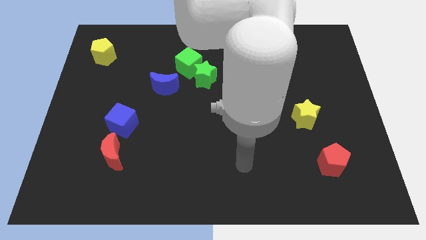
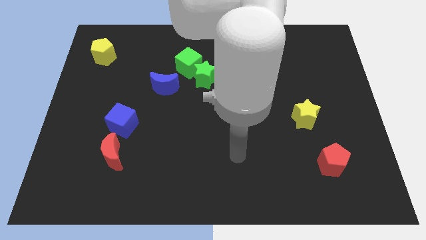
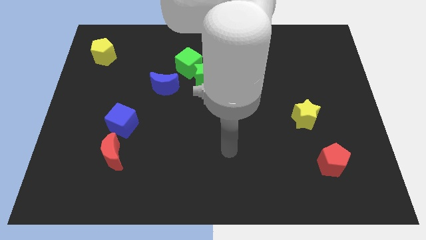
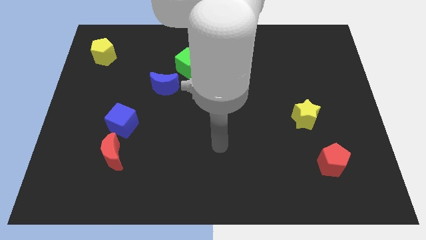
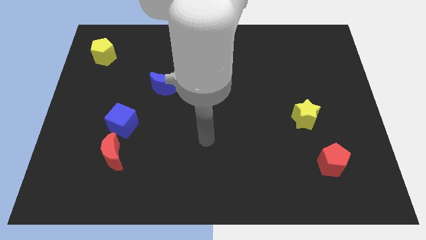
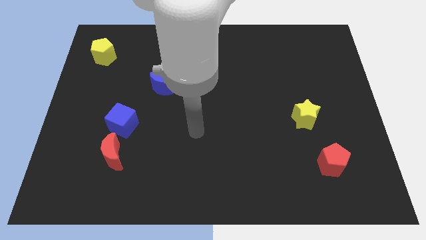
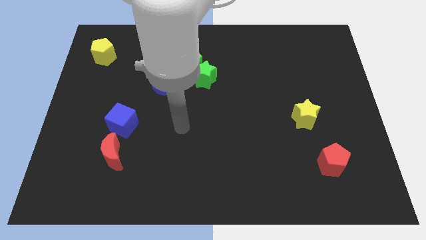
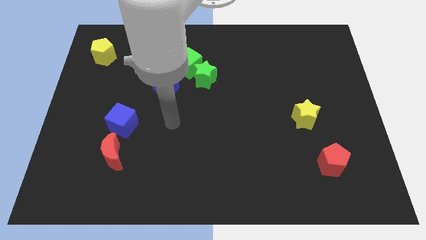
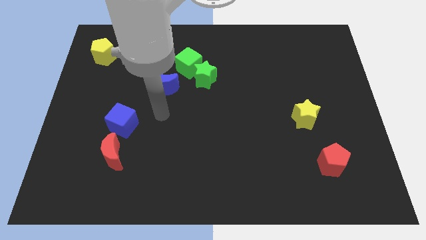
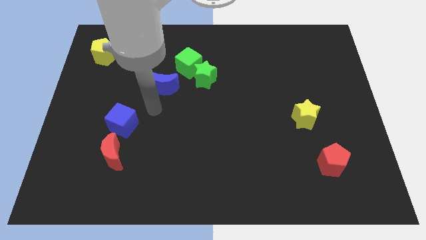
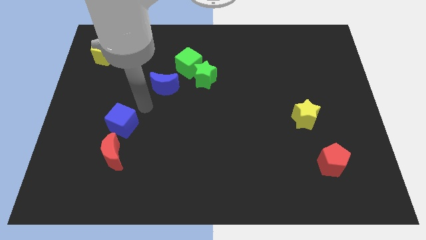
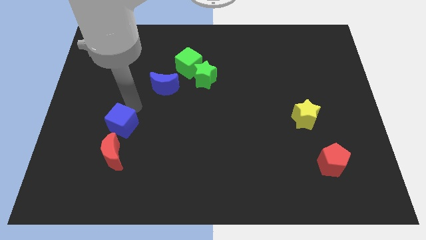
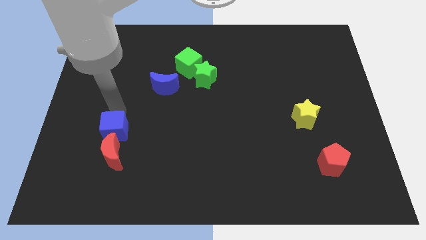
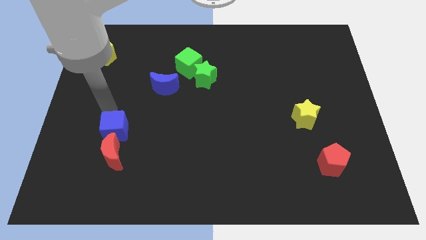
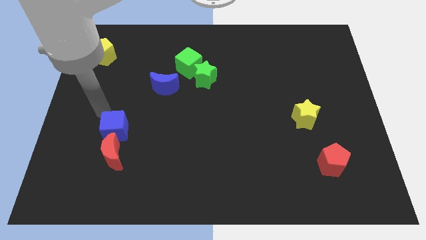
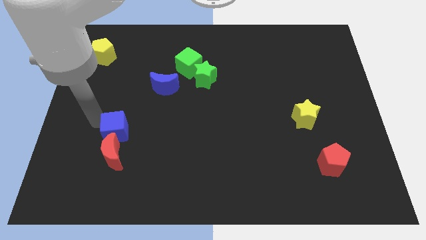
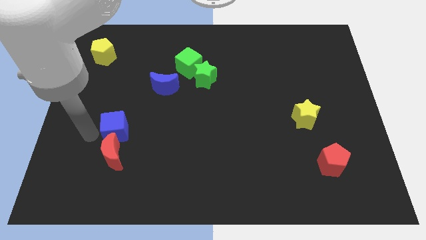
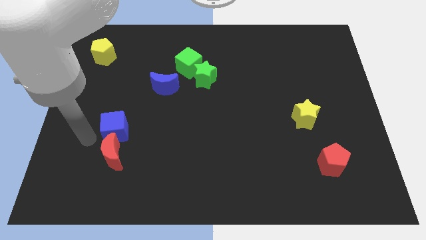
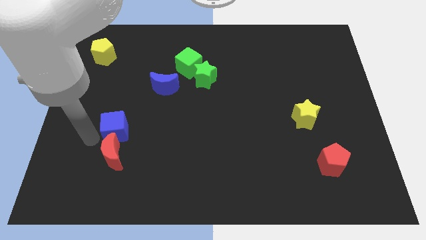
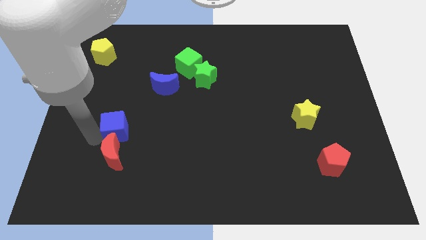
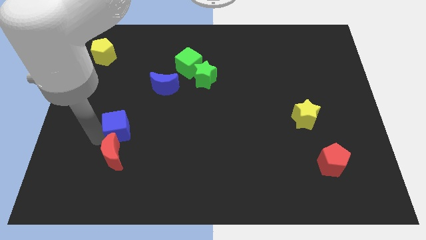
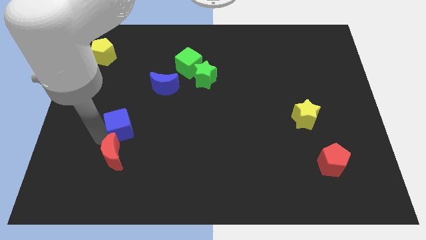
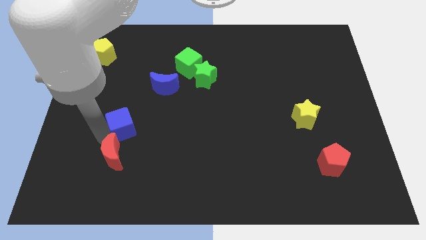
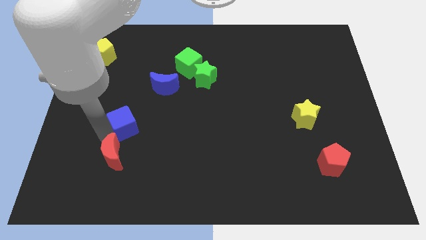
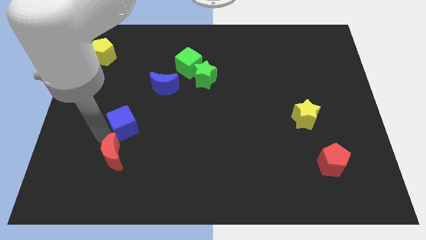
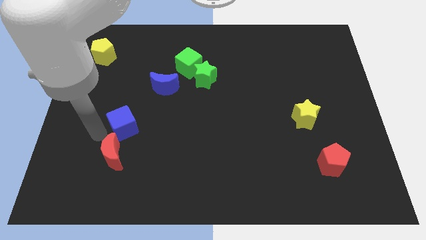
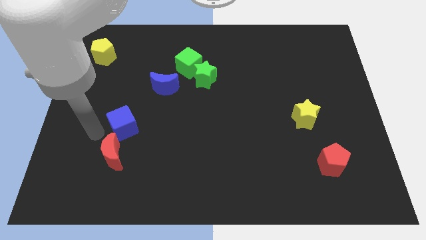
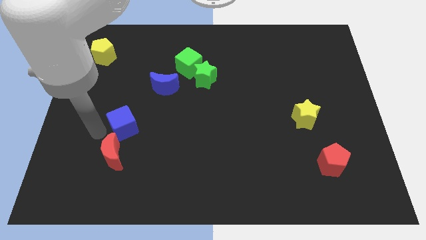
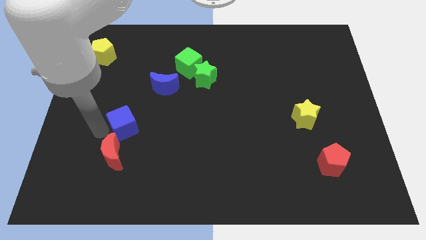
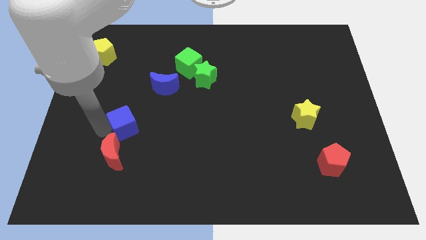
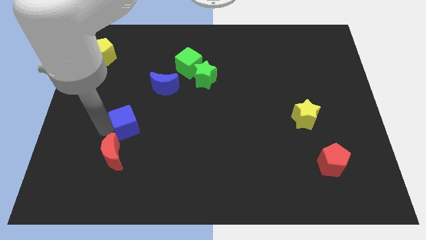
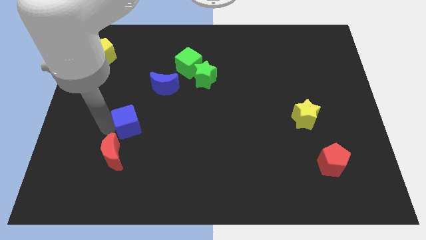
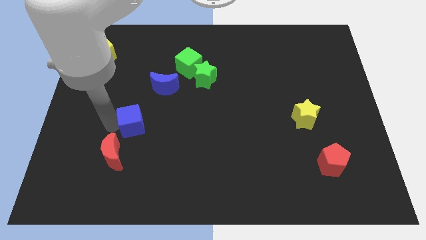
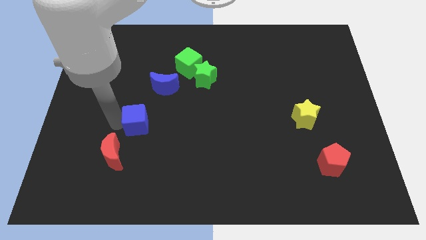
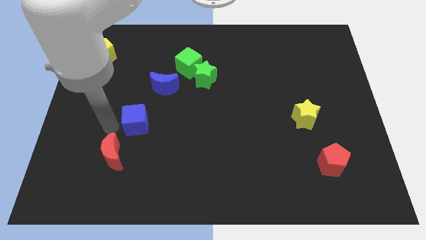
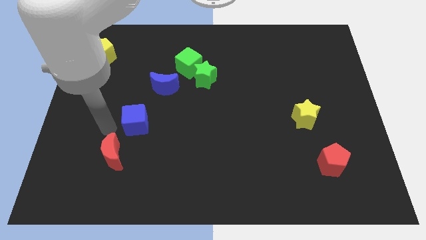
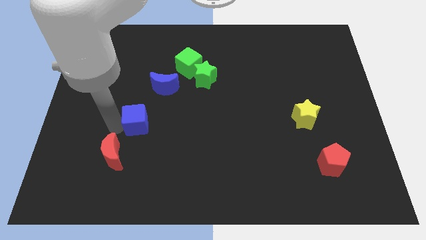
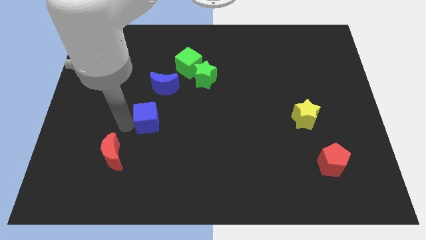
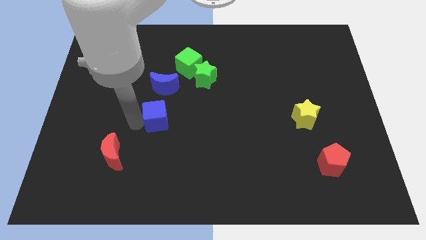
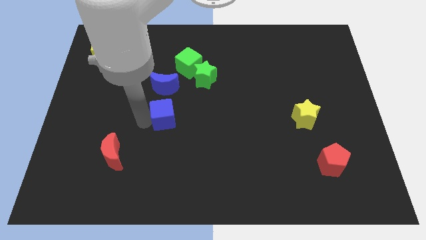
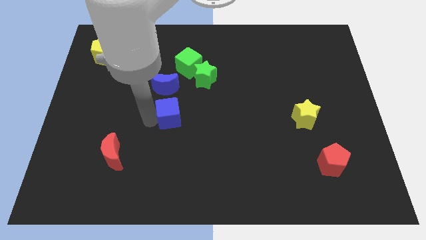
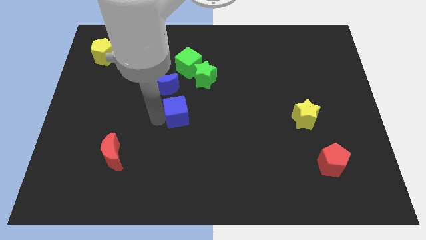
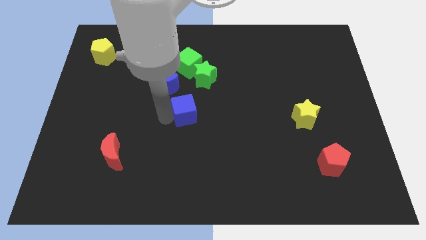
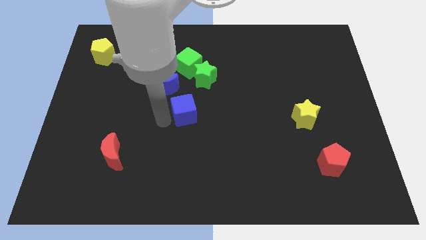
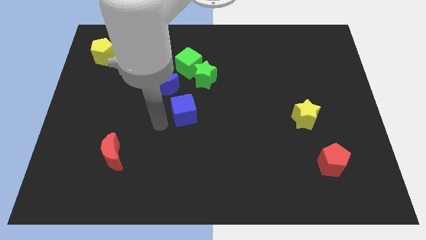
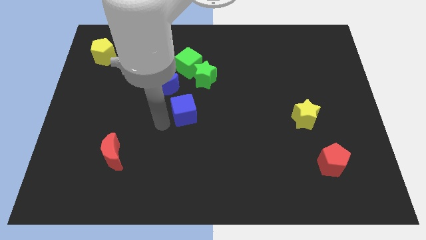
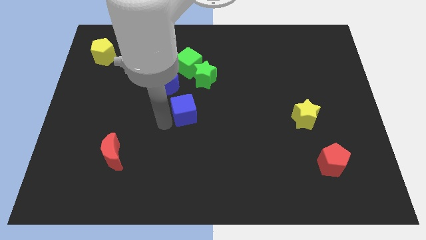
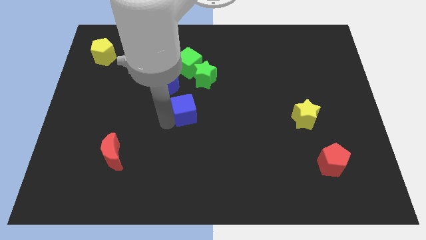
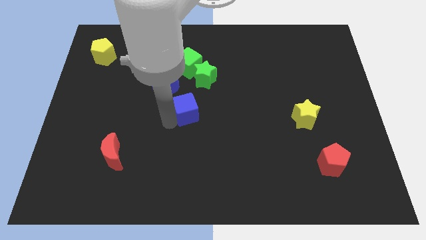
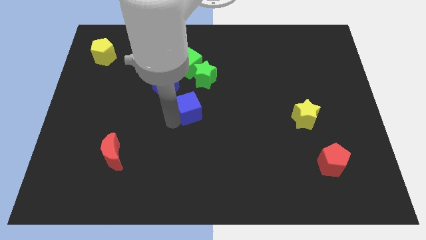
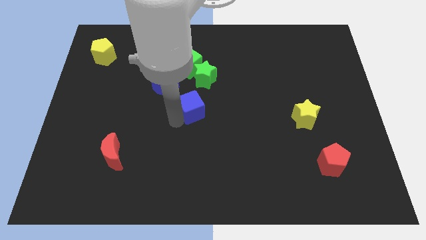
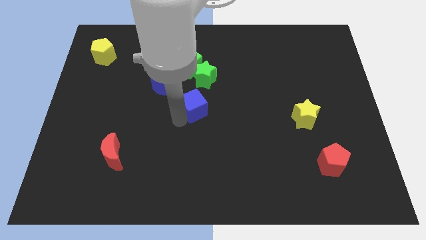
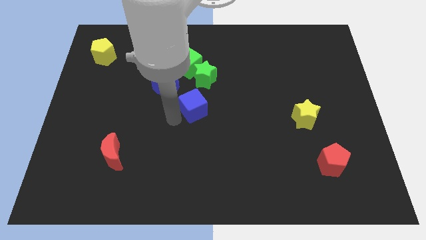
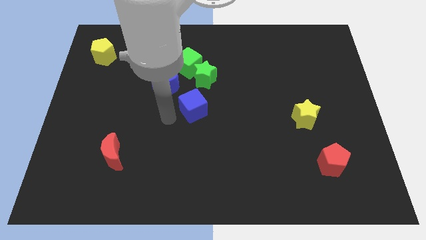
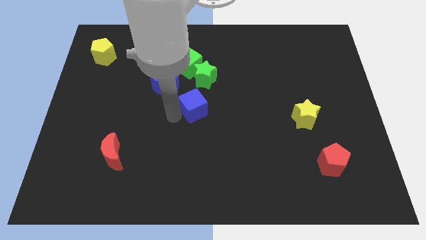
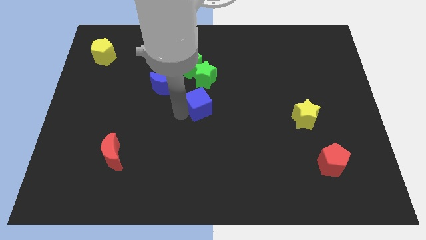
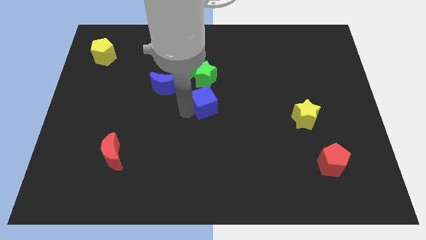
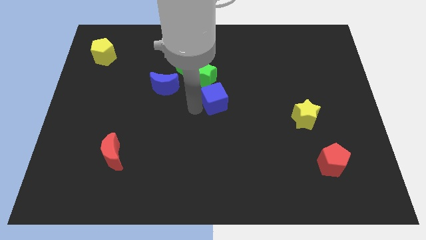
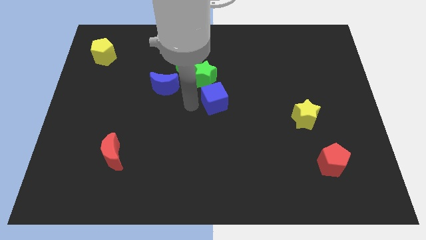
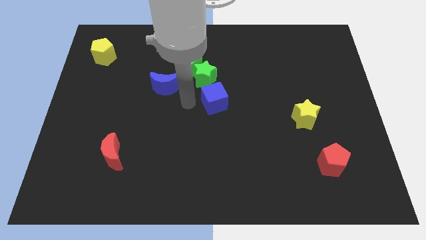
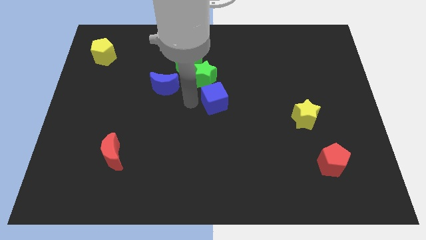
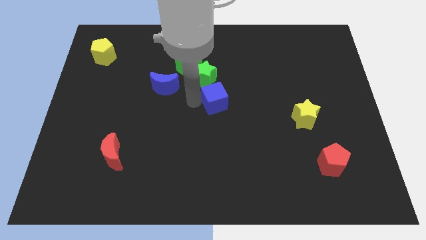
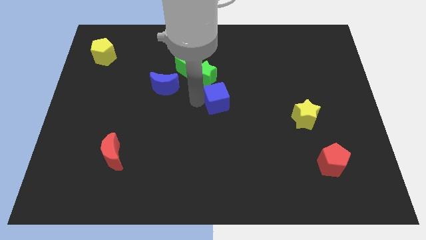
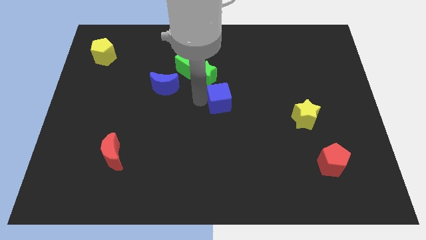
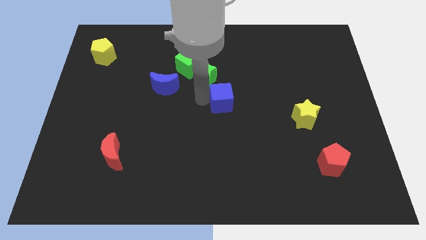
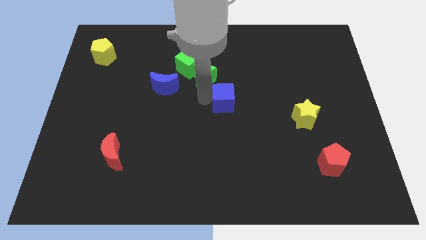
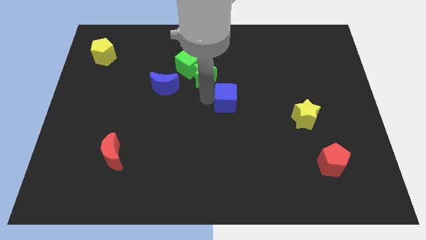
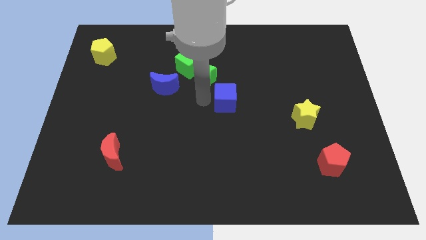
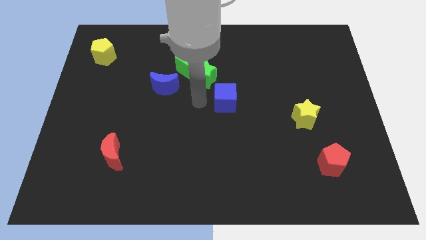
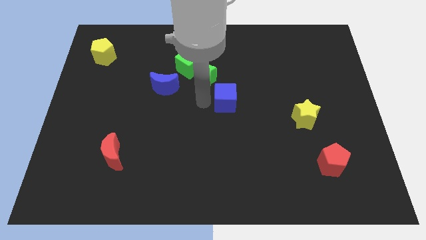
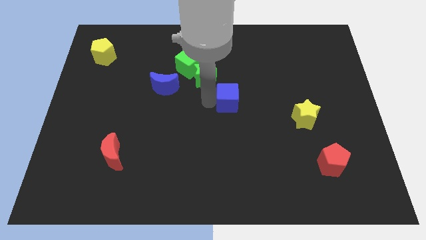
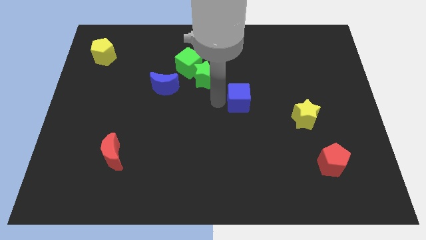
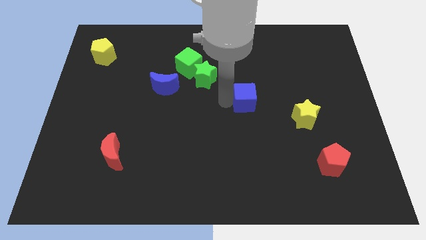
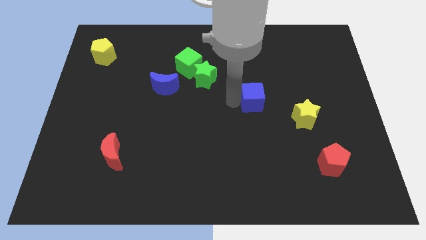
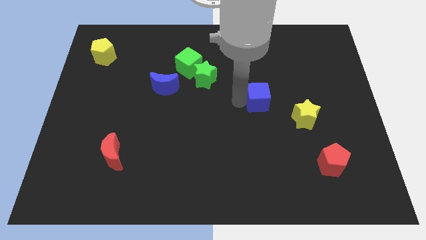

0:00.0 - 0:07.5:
put the blue cube to the top left of the yellow star
